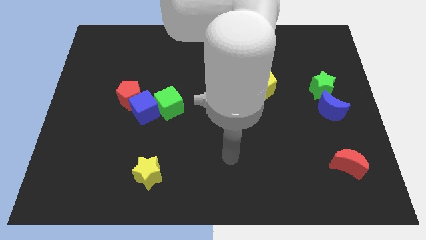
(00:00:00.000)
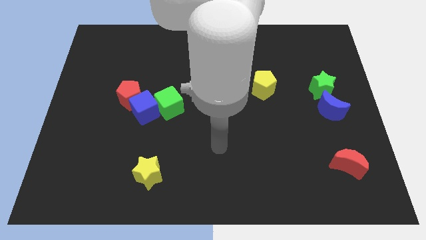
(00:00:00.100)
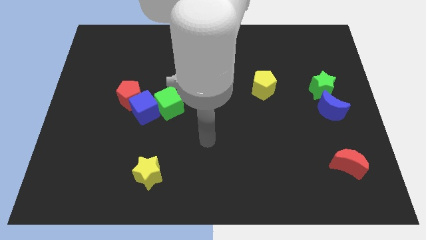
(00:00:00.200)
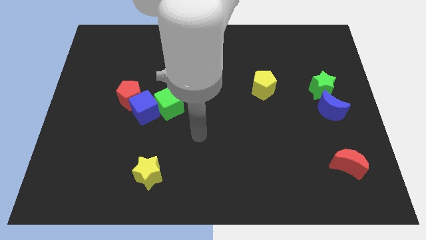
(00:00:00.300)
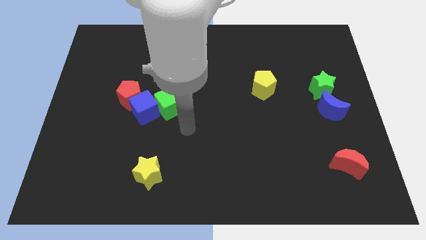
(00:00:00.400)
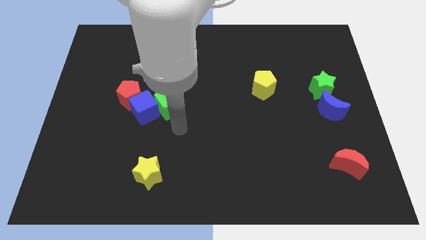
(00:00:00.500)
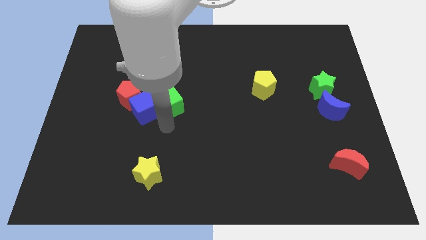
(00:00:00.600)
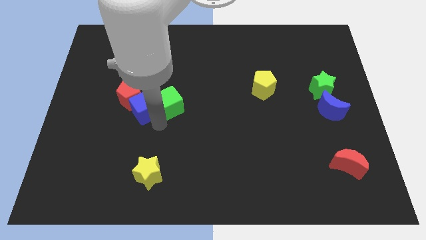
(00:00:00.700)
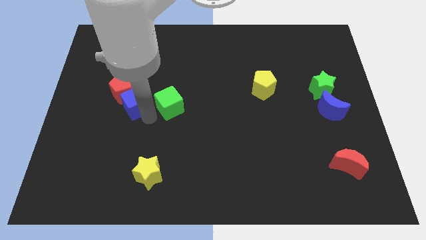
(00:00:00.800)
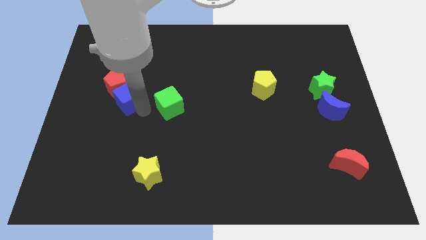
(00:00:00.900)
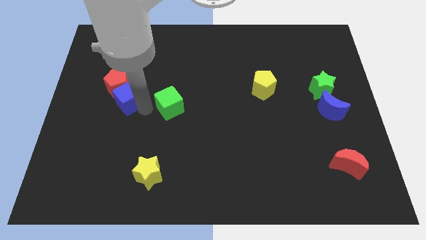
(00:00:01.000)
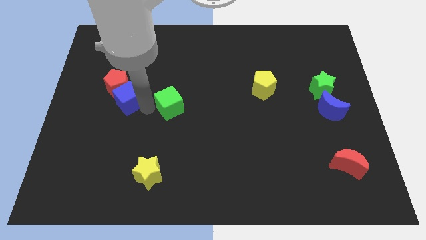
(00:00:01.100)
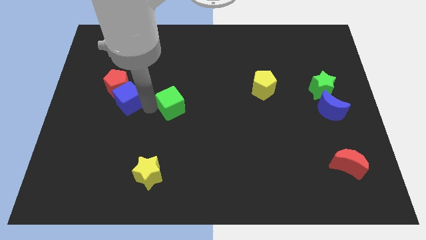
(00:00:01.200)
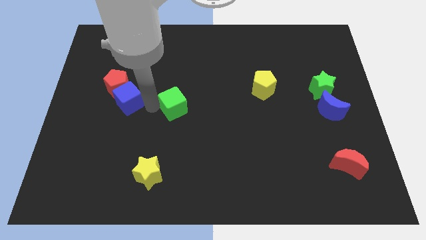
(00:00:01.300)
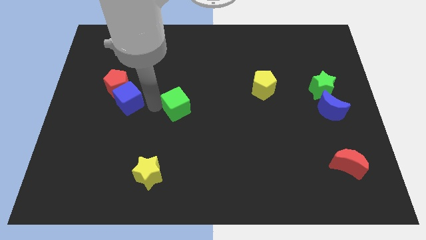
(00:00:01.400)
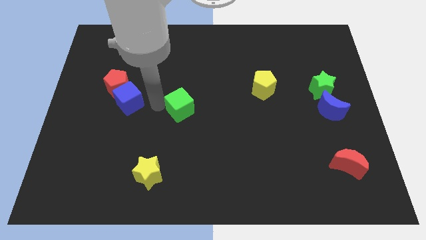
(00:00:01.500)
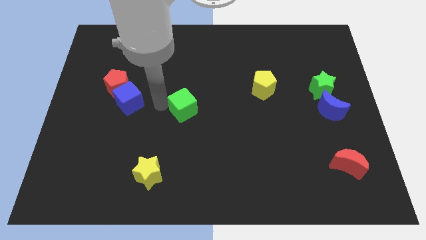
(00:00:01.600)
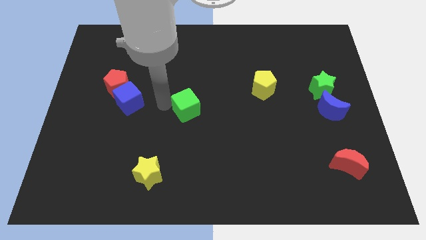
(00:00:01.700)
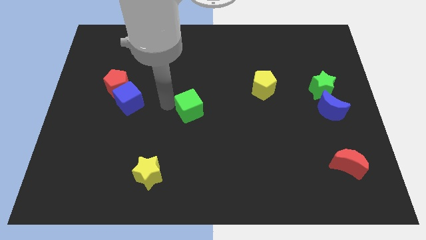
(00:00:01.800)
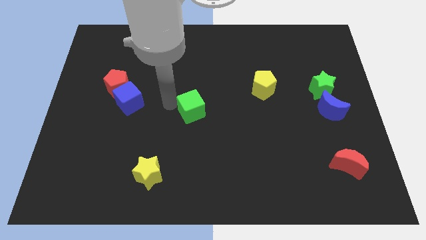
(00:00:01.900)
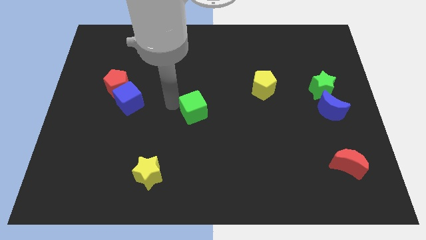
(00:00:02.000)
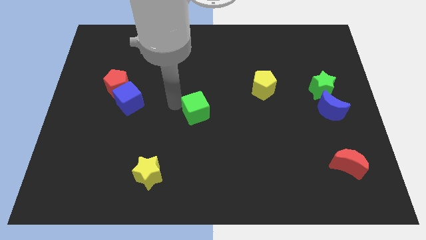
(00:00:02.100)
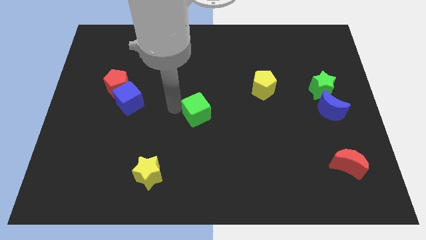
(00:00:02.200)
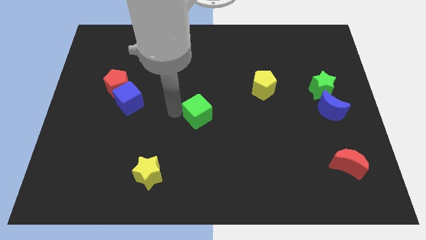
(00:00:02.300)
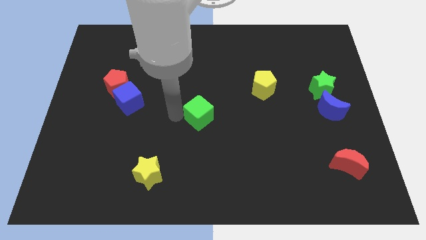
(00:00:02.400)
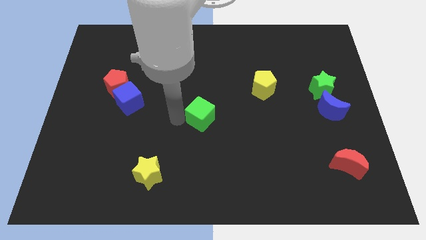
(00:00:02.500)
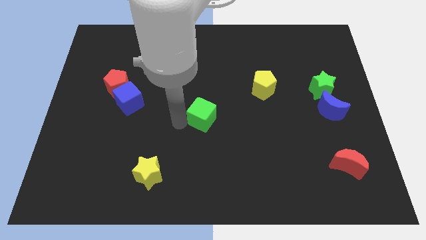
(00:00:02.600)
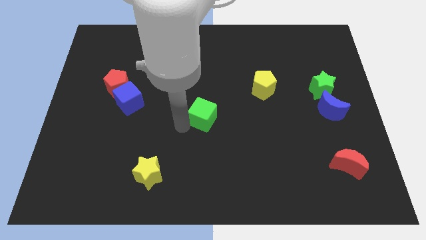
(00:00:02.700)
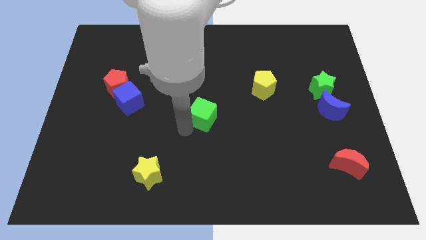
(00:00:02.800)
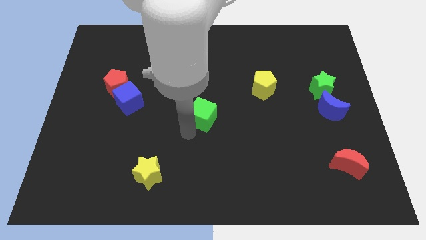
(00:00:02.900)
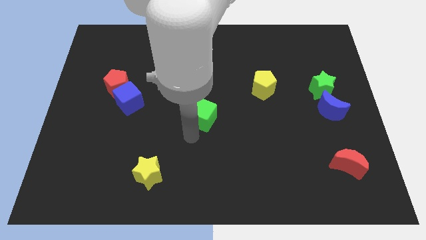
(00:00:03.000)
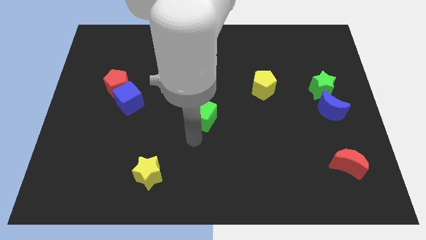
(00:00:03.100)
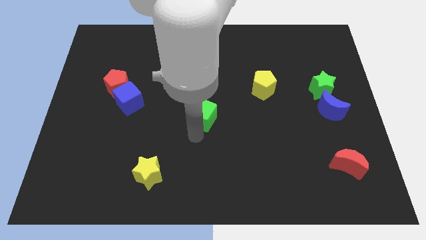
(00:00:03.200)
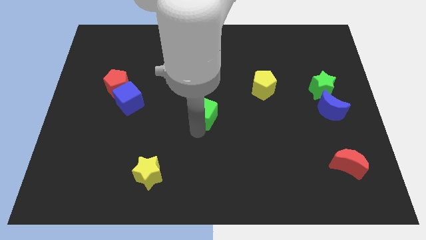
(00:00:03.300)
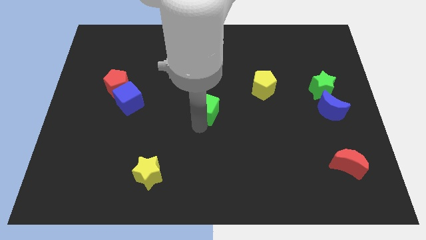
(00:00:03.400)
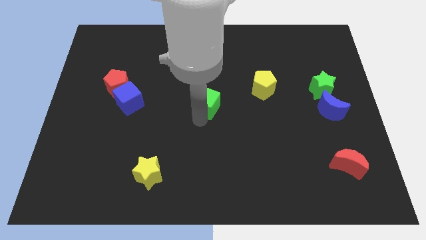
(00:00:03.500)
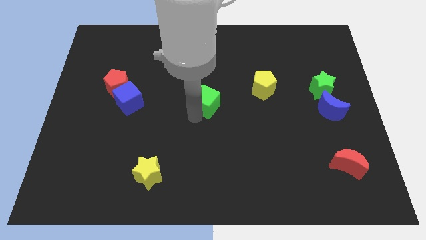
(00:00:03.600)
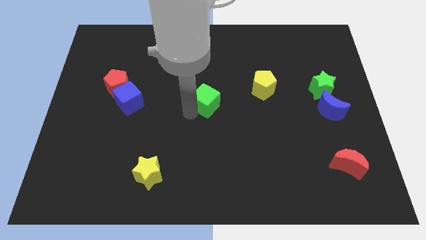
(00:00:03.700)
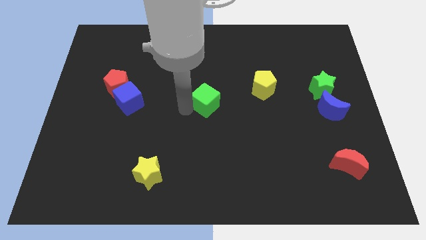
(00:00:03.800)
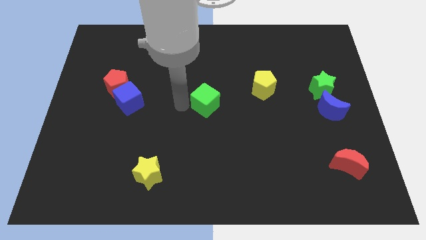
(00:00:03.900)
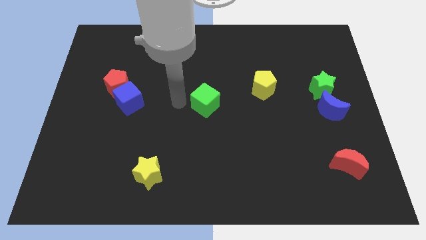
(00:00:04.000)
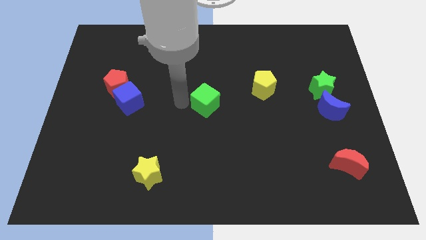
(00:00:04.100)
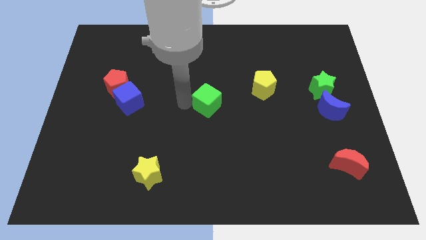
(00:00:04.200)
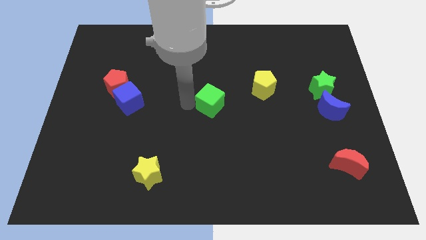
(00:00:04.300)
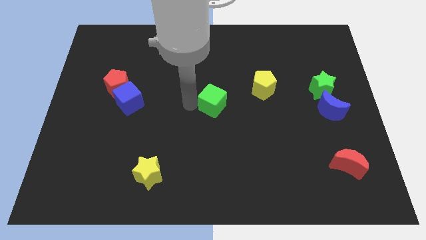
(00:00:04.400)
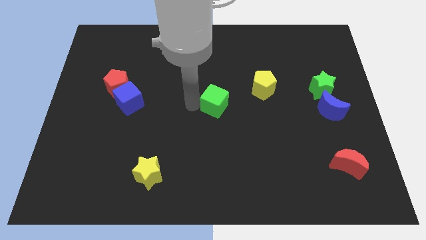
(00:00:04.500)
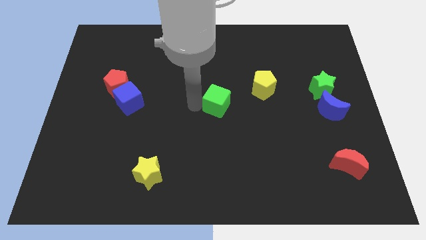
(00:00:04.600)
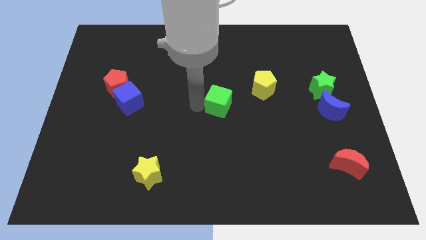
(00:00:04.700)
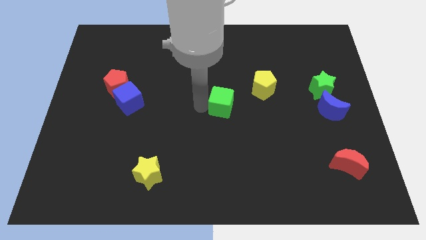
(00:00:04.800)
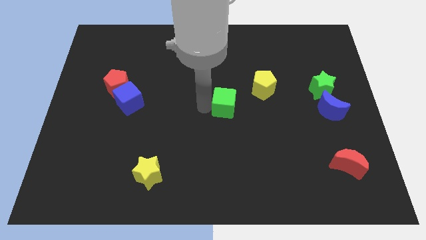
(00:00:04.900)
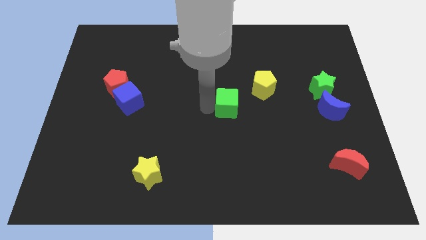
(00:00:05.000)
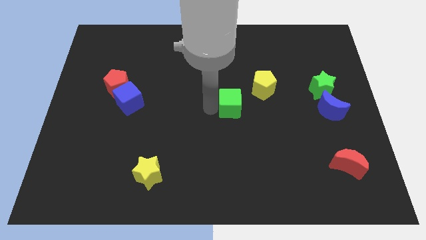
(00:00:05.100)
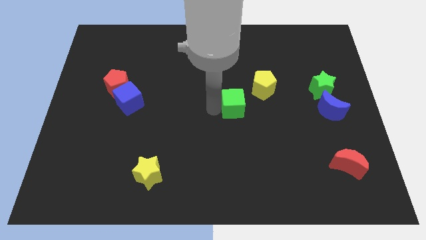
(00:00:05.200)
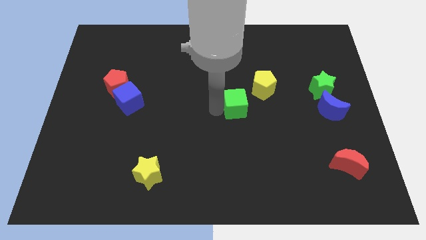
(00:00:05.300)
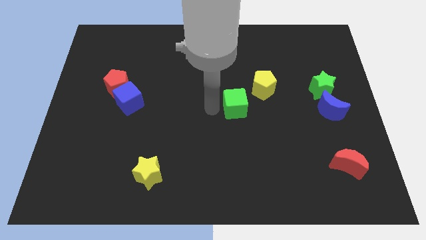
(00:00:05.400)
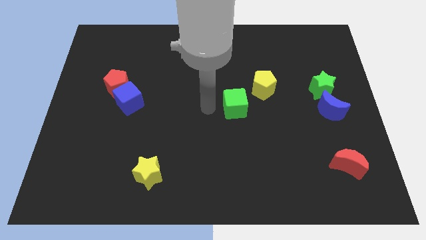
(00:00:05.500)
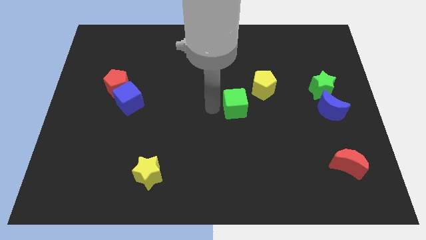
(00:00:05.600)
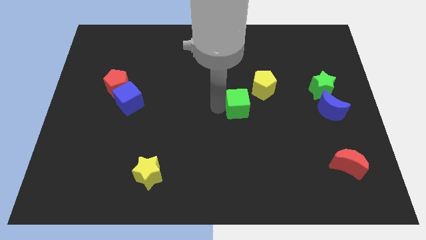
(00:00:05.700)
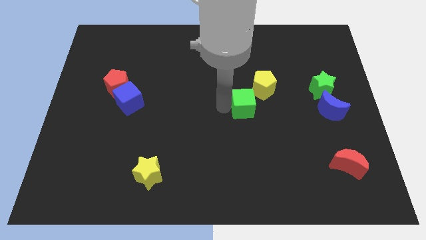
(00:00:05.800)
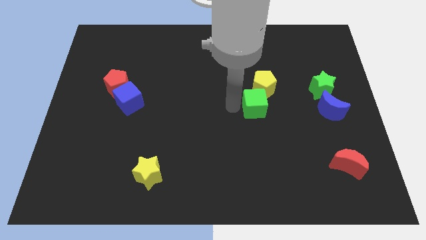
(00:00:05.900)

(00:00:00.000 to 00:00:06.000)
slide the green cube right

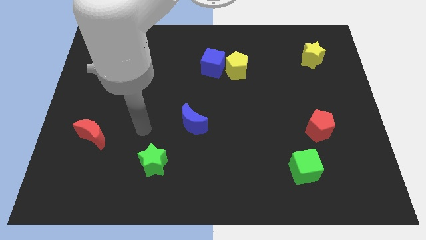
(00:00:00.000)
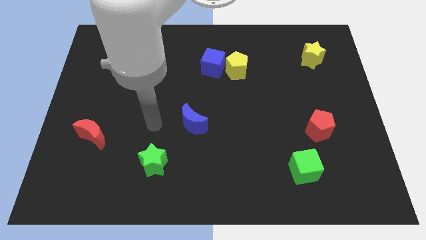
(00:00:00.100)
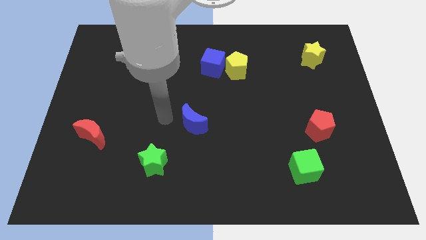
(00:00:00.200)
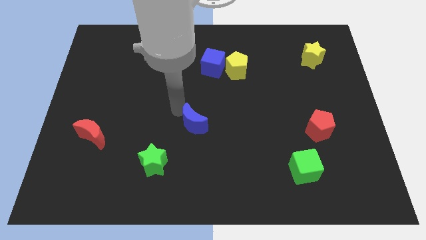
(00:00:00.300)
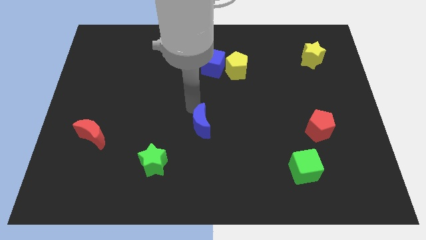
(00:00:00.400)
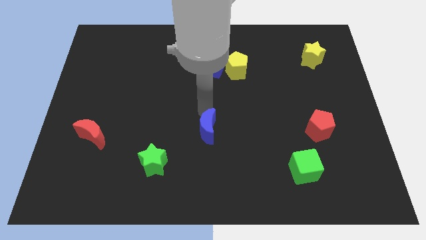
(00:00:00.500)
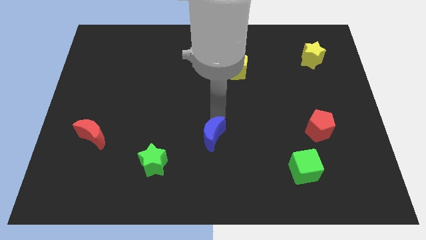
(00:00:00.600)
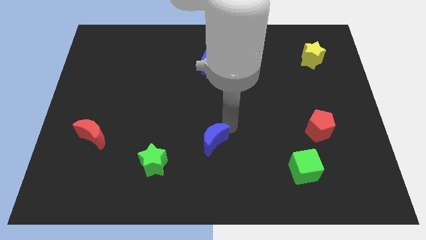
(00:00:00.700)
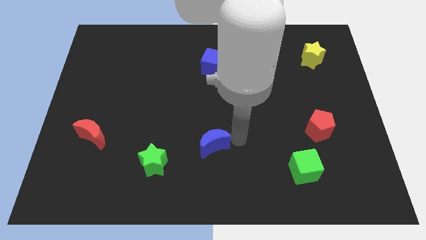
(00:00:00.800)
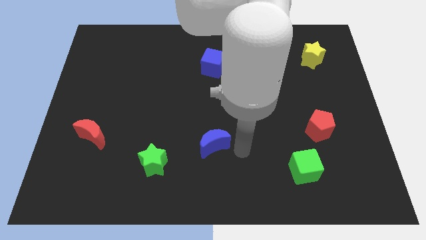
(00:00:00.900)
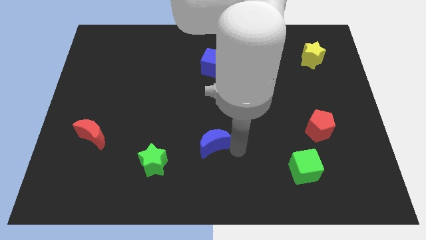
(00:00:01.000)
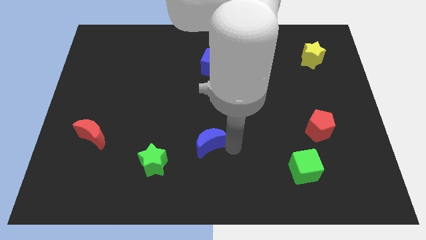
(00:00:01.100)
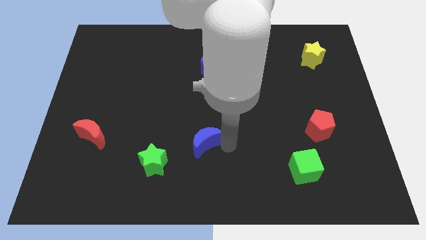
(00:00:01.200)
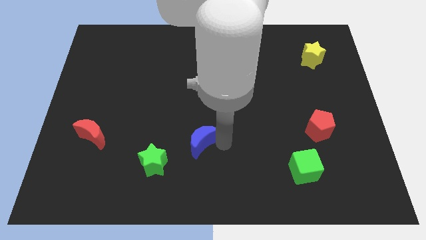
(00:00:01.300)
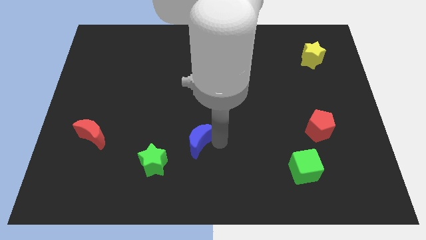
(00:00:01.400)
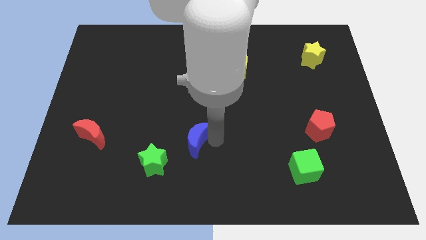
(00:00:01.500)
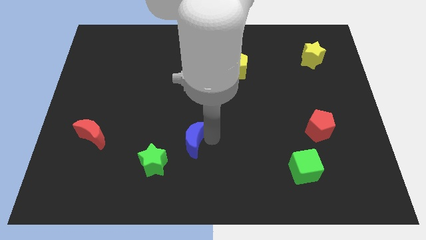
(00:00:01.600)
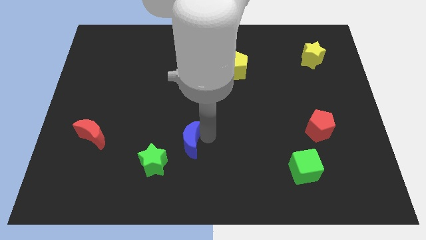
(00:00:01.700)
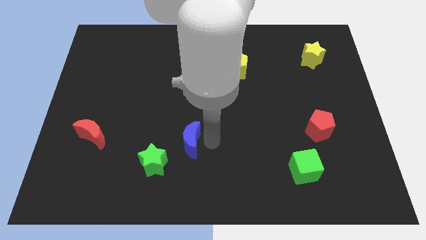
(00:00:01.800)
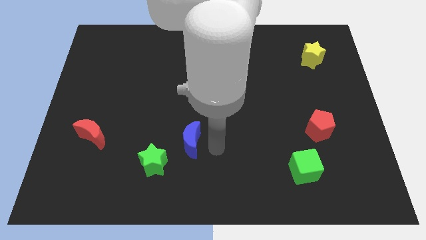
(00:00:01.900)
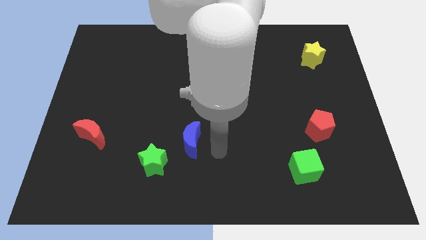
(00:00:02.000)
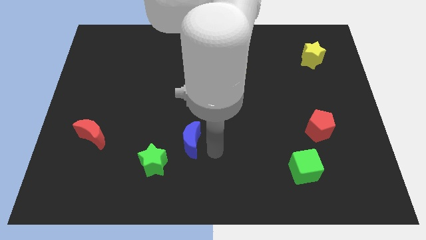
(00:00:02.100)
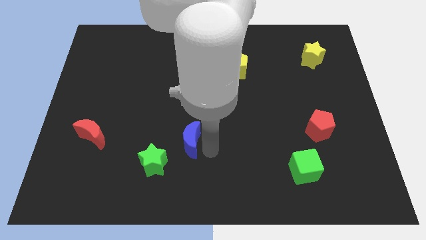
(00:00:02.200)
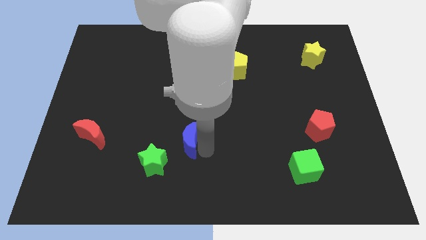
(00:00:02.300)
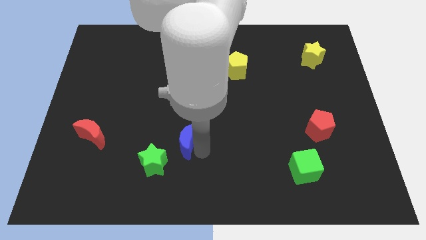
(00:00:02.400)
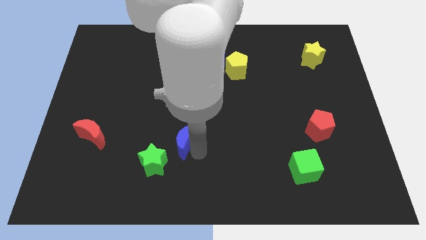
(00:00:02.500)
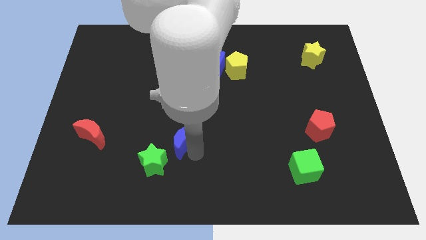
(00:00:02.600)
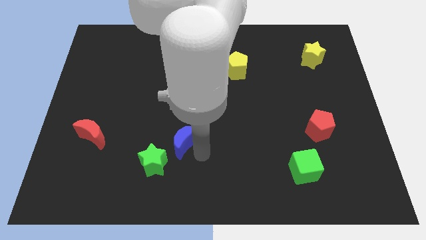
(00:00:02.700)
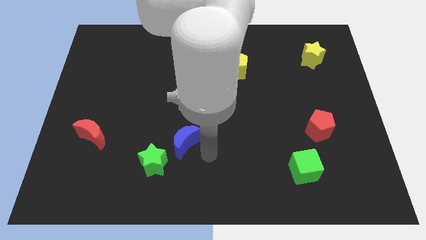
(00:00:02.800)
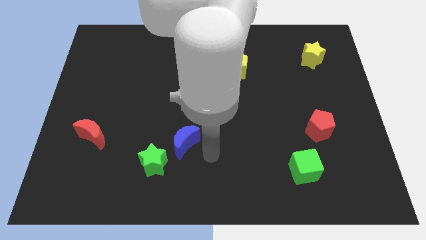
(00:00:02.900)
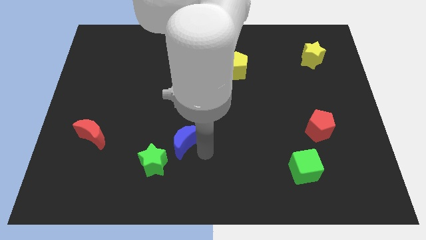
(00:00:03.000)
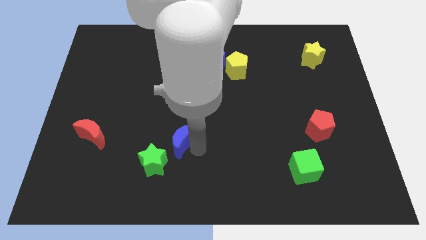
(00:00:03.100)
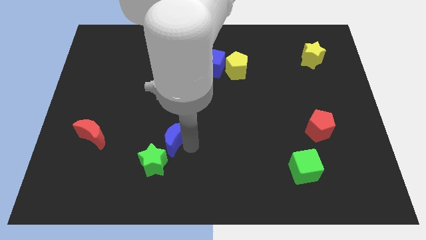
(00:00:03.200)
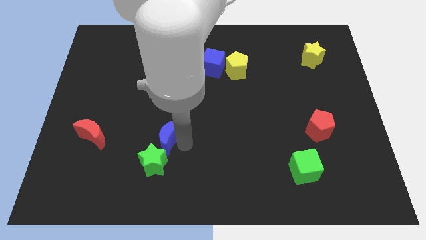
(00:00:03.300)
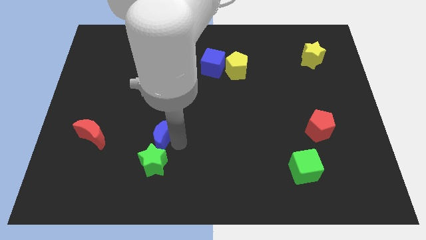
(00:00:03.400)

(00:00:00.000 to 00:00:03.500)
push the blue moon diagonally down and left slightly
